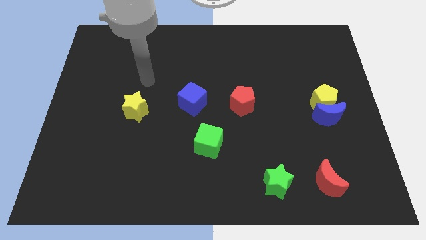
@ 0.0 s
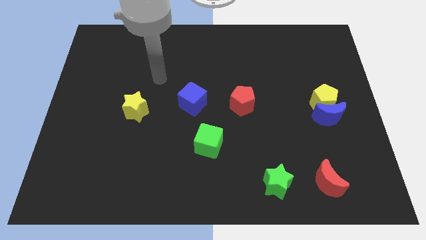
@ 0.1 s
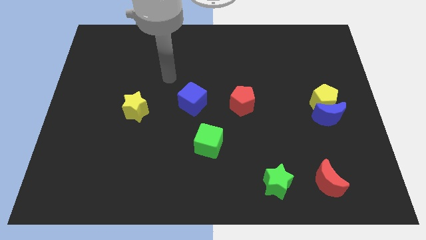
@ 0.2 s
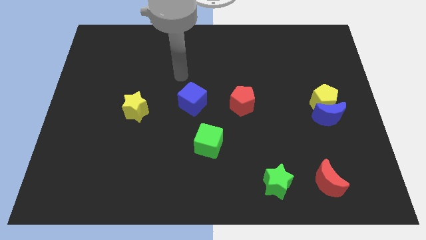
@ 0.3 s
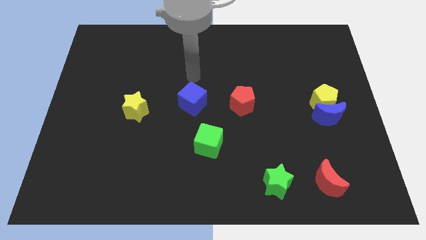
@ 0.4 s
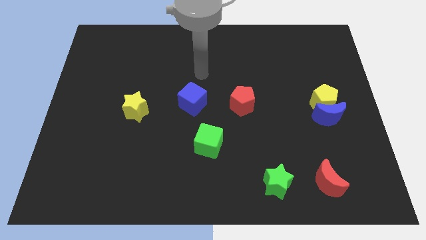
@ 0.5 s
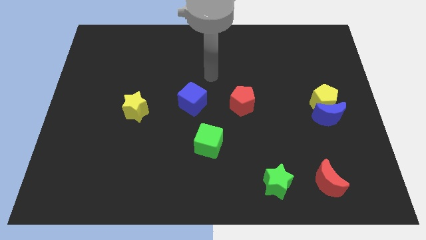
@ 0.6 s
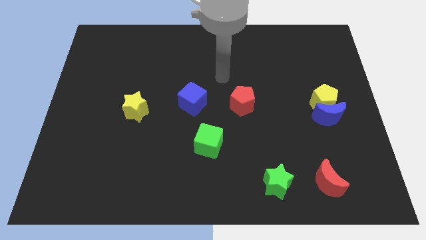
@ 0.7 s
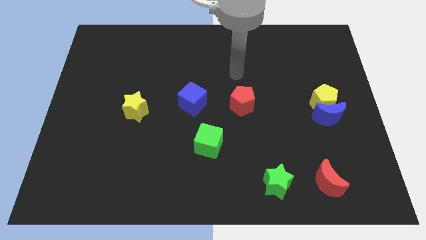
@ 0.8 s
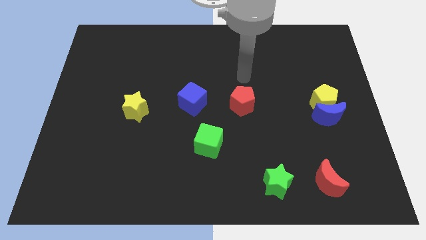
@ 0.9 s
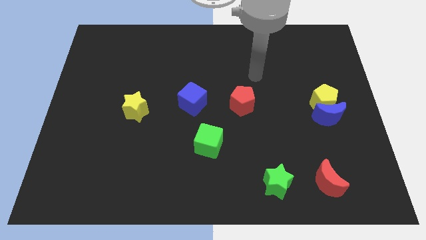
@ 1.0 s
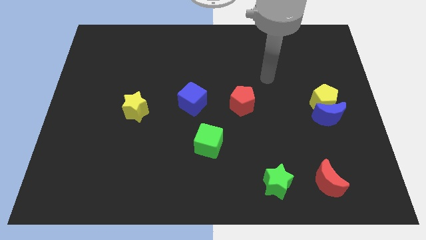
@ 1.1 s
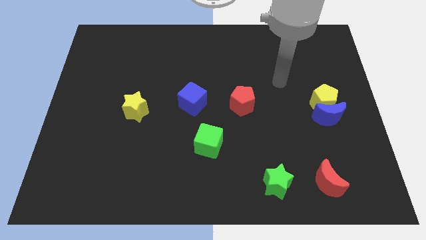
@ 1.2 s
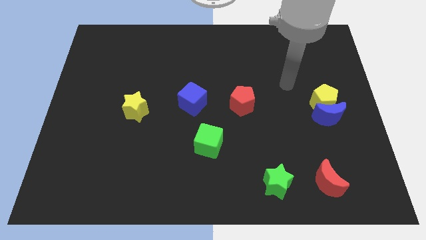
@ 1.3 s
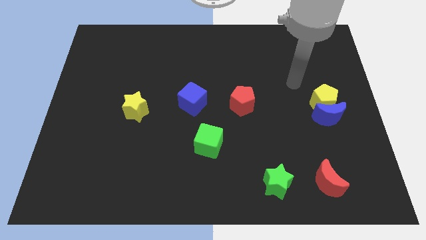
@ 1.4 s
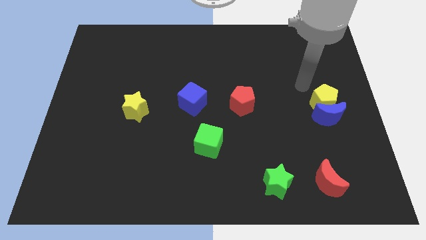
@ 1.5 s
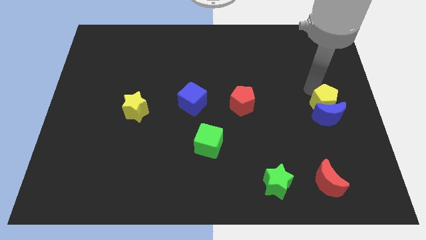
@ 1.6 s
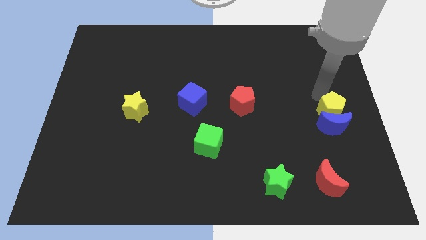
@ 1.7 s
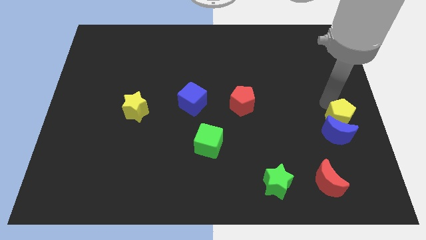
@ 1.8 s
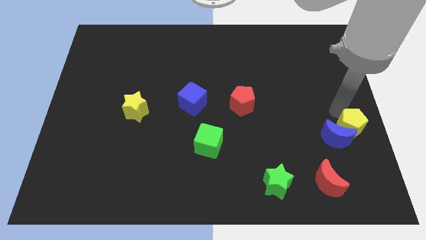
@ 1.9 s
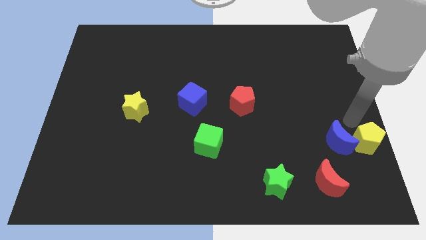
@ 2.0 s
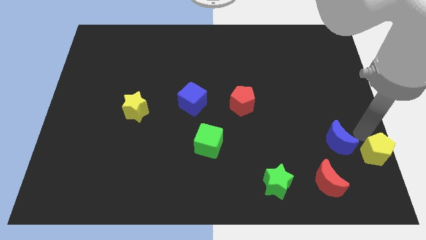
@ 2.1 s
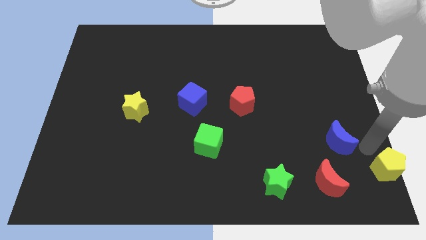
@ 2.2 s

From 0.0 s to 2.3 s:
pull the blue moon apart from the yellow pentagon

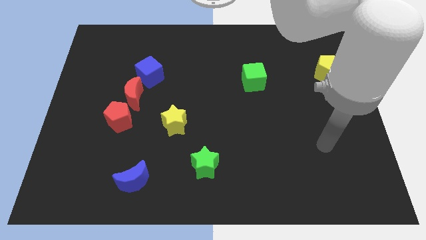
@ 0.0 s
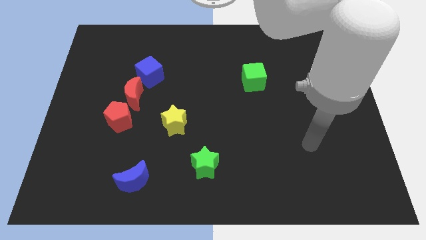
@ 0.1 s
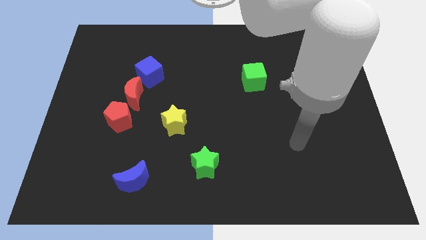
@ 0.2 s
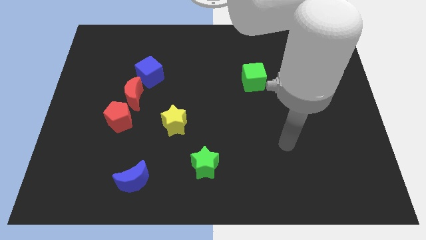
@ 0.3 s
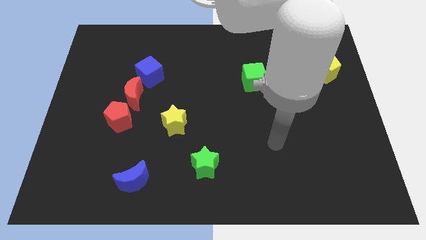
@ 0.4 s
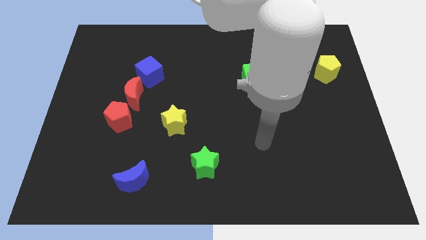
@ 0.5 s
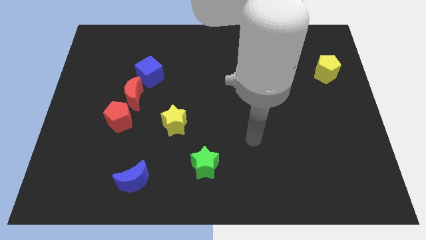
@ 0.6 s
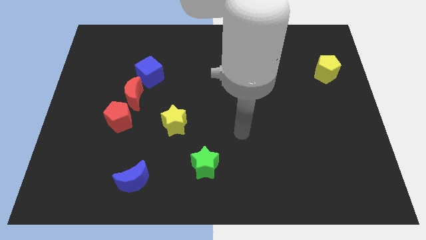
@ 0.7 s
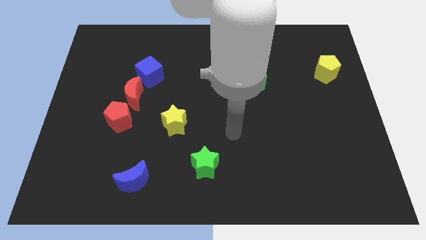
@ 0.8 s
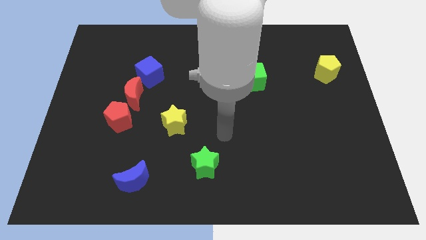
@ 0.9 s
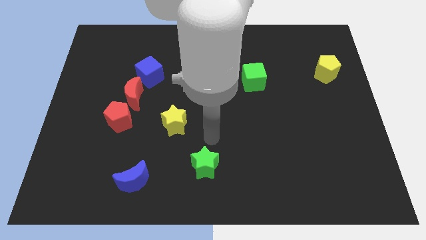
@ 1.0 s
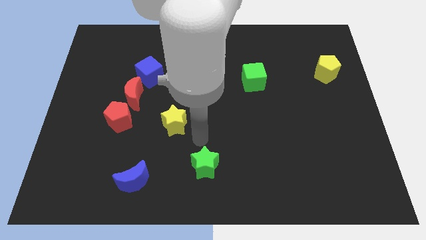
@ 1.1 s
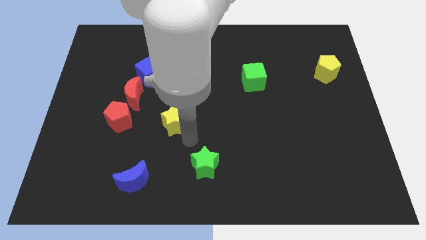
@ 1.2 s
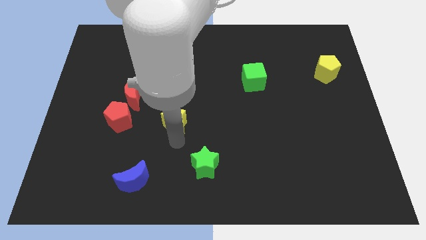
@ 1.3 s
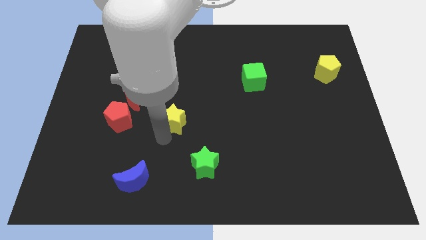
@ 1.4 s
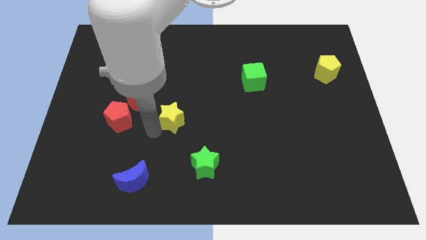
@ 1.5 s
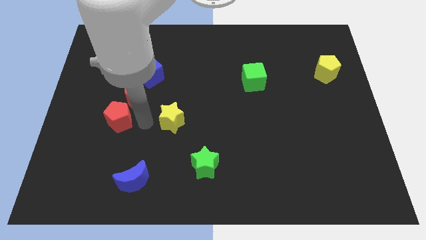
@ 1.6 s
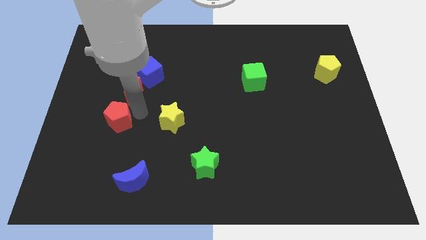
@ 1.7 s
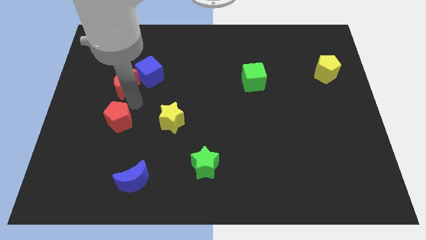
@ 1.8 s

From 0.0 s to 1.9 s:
pull the red pentagon apart from the red moon

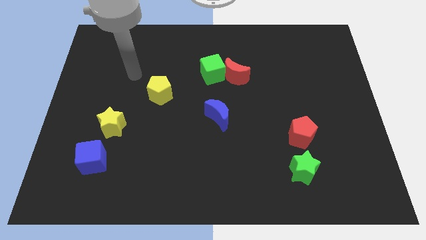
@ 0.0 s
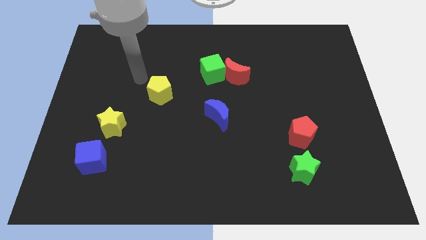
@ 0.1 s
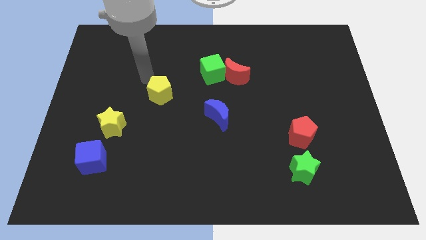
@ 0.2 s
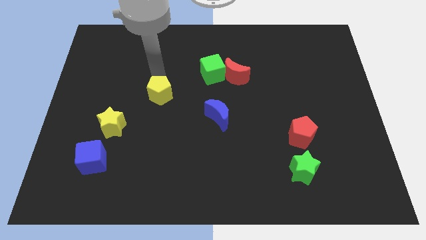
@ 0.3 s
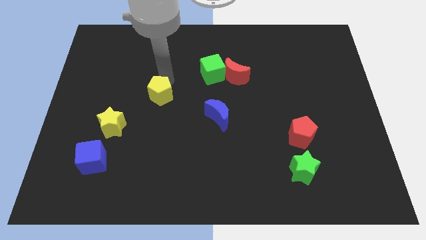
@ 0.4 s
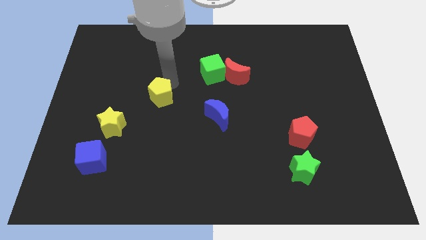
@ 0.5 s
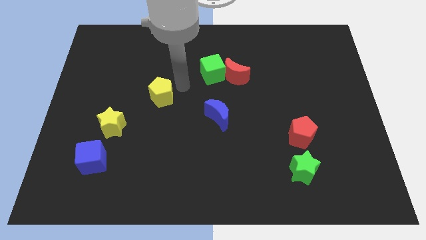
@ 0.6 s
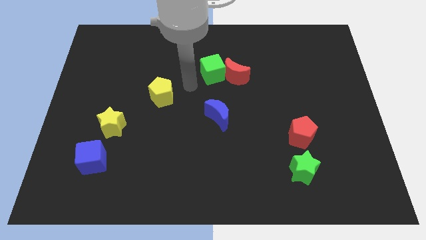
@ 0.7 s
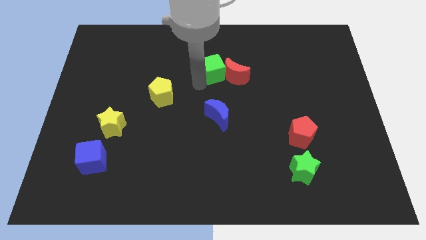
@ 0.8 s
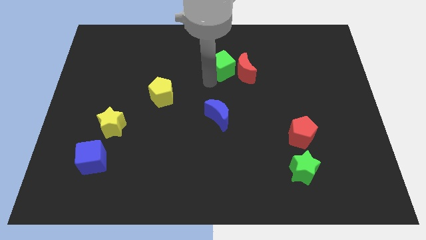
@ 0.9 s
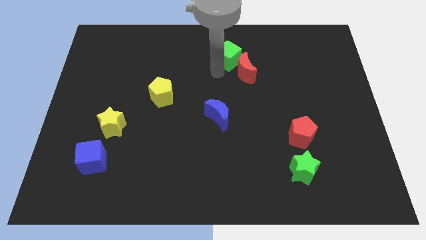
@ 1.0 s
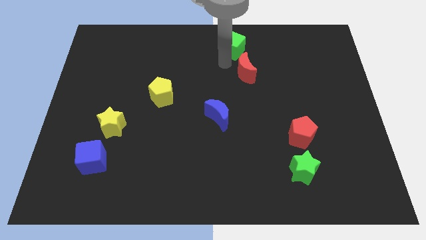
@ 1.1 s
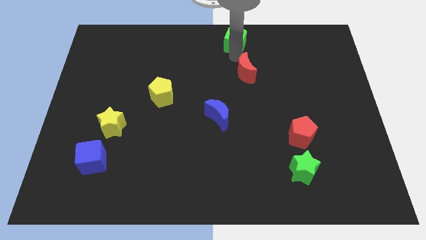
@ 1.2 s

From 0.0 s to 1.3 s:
move the red moon away from the green cube

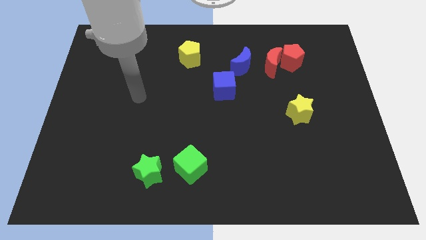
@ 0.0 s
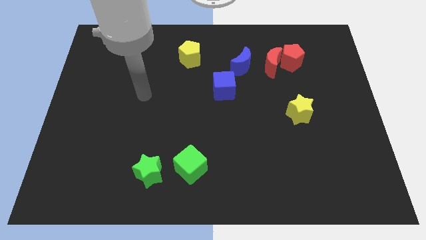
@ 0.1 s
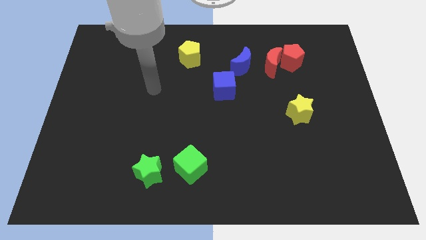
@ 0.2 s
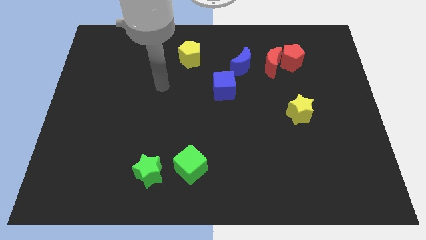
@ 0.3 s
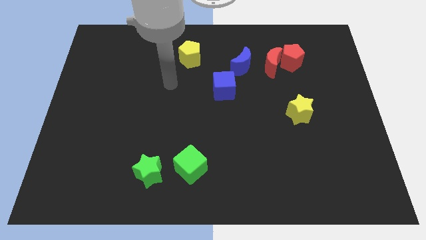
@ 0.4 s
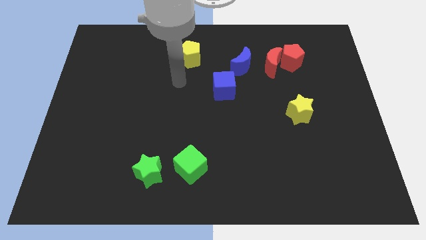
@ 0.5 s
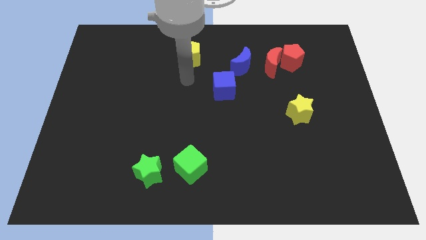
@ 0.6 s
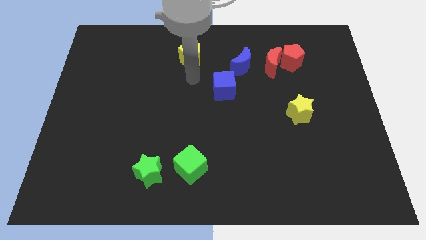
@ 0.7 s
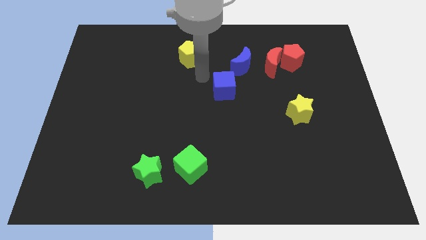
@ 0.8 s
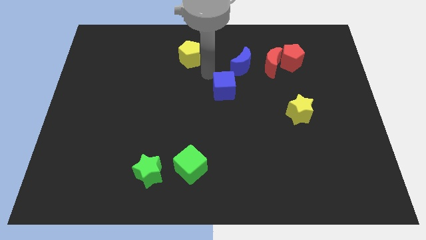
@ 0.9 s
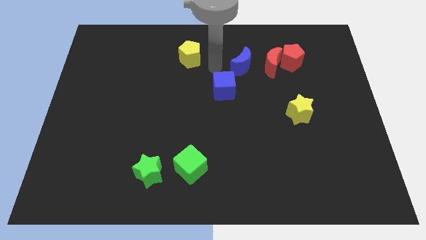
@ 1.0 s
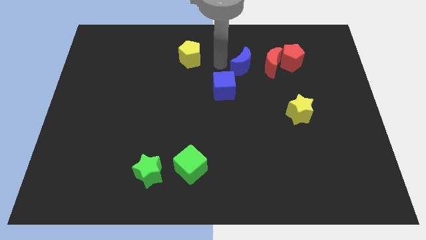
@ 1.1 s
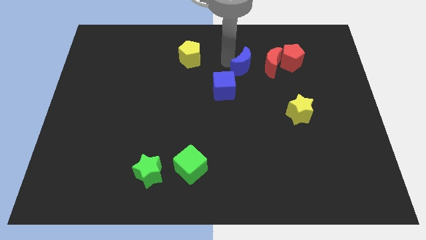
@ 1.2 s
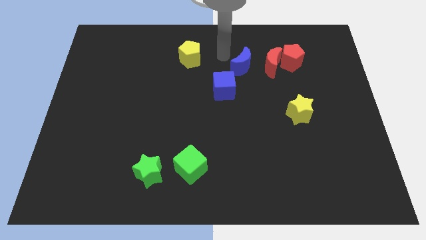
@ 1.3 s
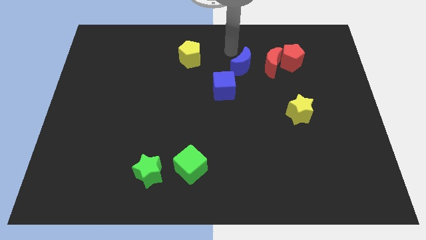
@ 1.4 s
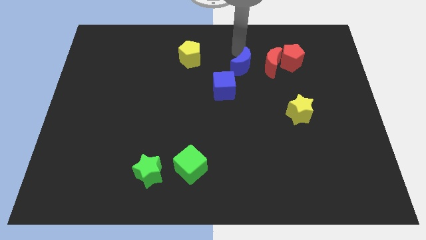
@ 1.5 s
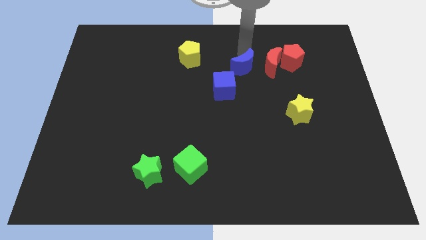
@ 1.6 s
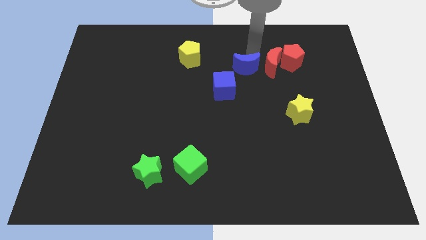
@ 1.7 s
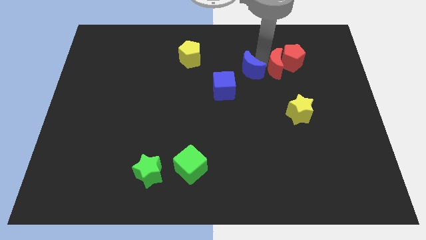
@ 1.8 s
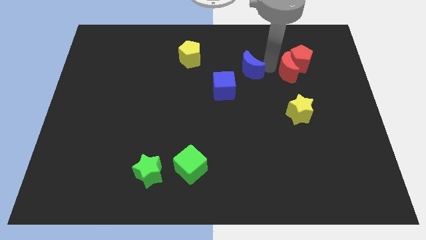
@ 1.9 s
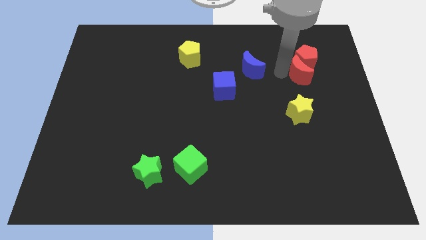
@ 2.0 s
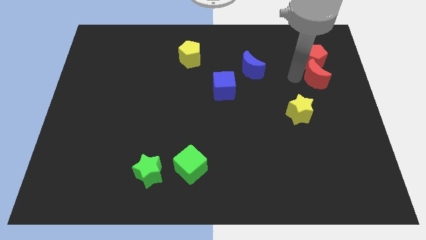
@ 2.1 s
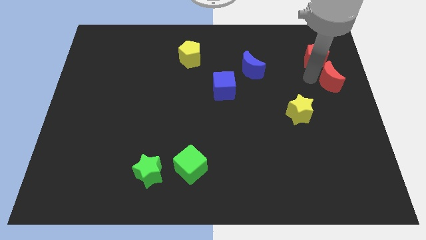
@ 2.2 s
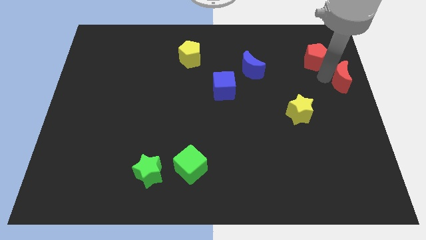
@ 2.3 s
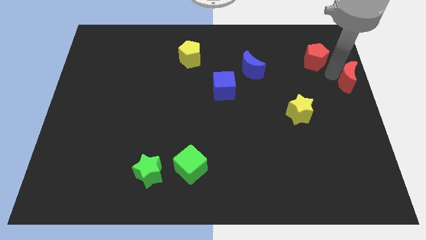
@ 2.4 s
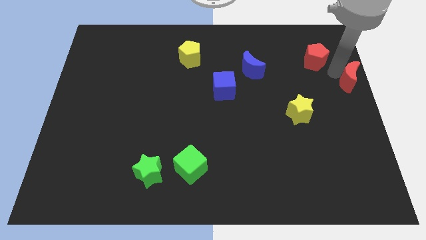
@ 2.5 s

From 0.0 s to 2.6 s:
move the red pentagon away from the red moon

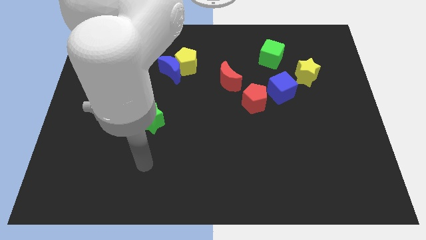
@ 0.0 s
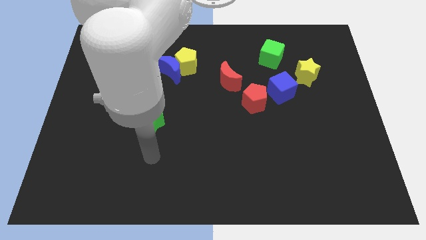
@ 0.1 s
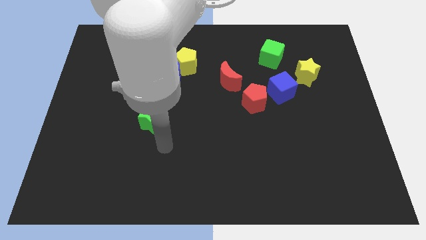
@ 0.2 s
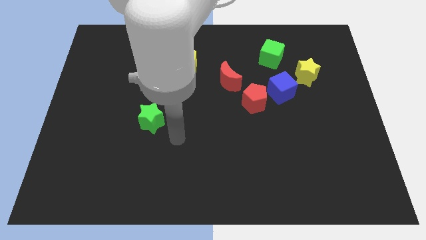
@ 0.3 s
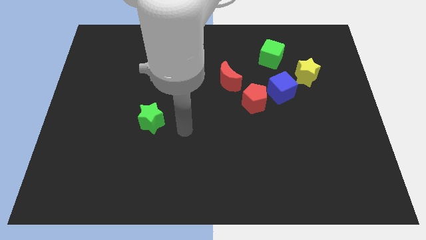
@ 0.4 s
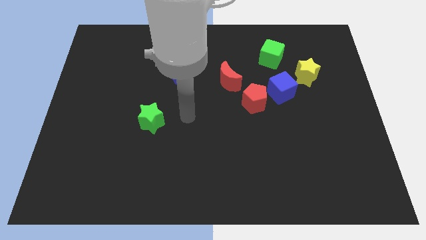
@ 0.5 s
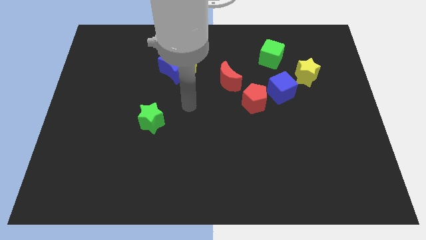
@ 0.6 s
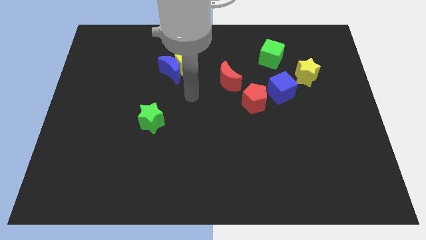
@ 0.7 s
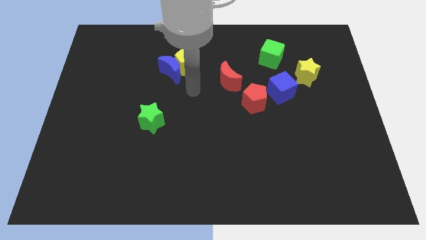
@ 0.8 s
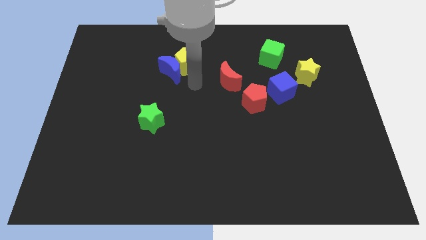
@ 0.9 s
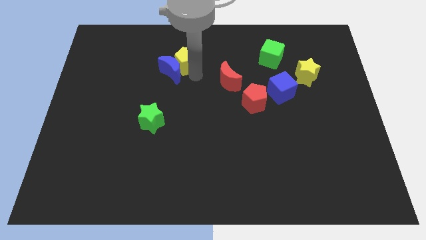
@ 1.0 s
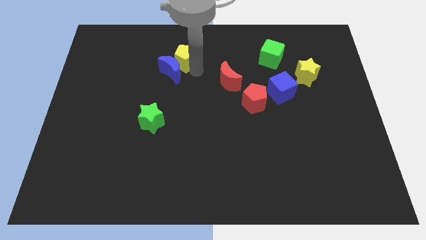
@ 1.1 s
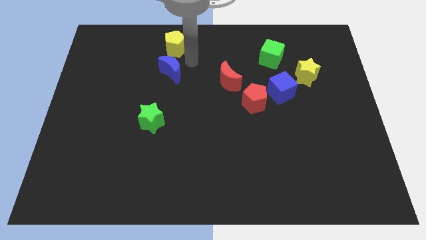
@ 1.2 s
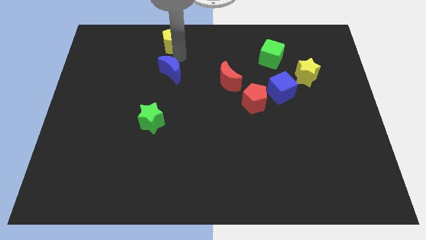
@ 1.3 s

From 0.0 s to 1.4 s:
separate the blue moon from the yellow pentagon
